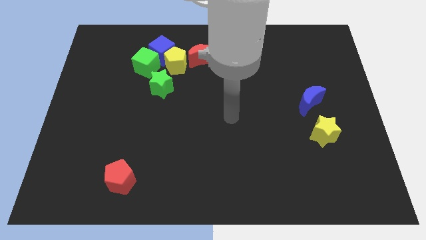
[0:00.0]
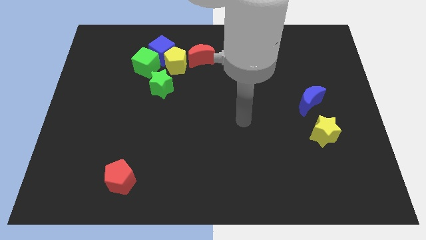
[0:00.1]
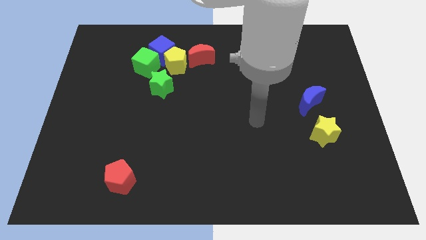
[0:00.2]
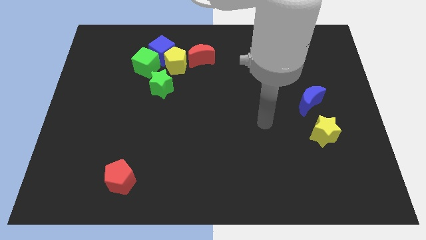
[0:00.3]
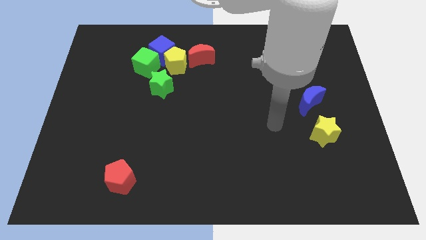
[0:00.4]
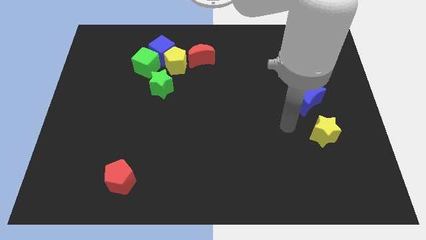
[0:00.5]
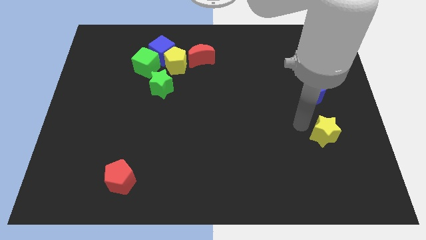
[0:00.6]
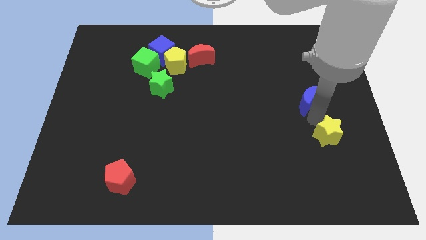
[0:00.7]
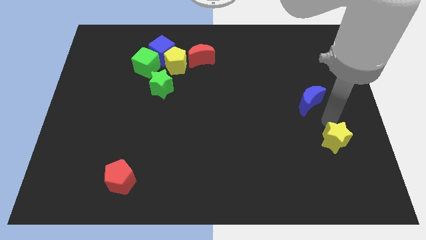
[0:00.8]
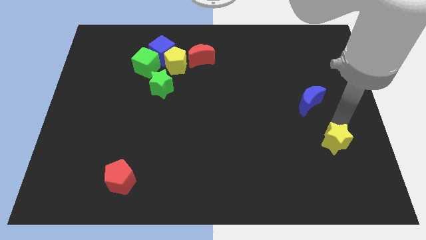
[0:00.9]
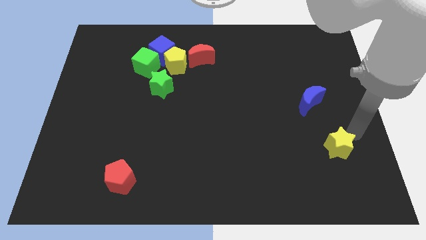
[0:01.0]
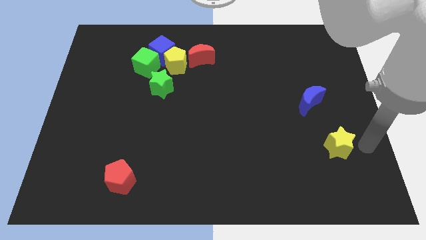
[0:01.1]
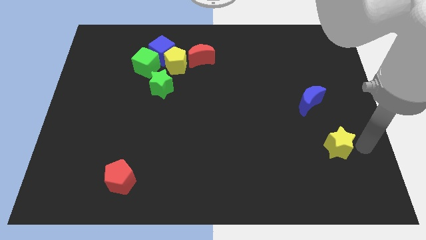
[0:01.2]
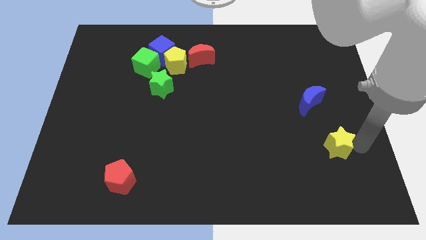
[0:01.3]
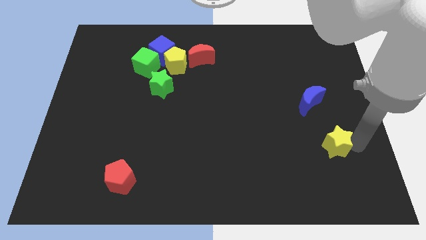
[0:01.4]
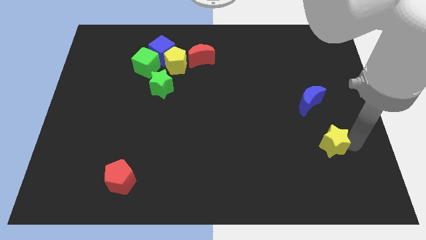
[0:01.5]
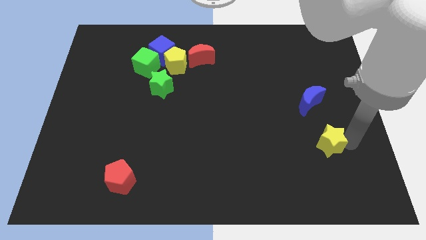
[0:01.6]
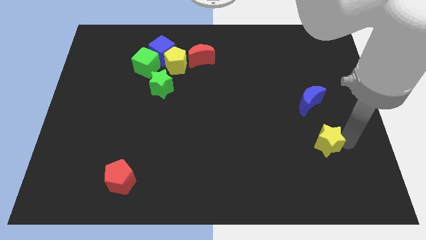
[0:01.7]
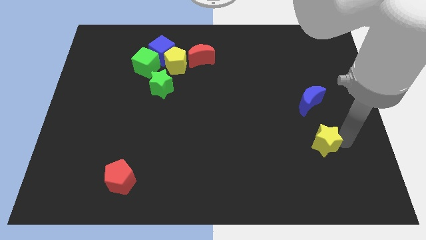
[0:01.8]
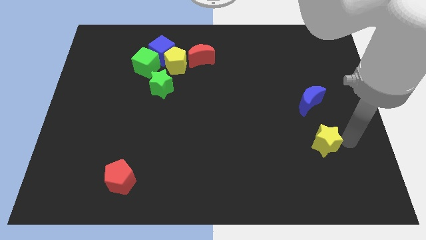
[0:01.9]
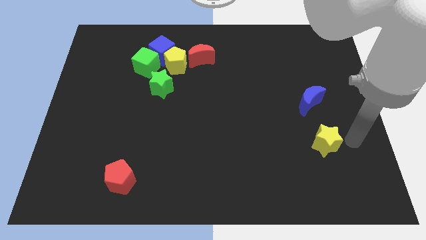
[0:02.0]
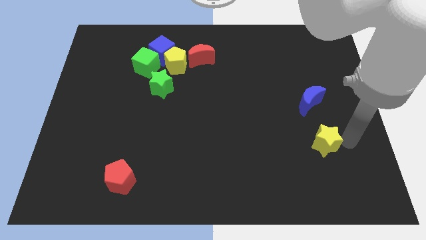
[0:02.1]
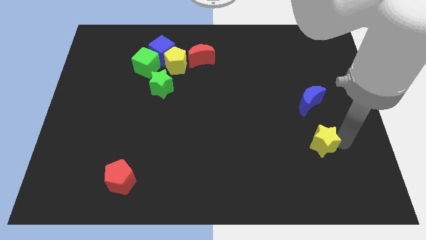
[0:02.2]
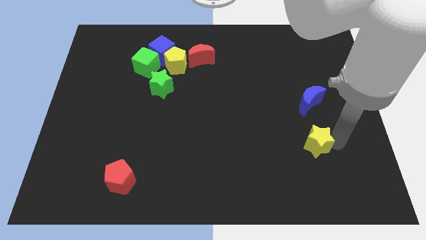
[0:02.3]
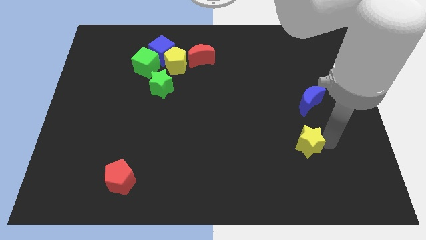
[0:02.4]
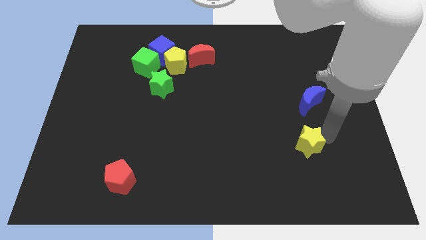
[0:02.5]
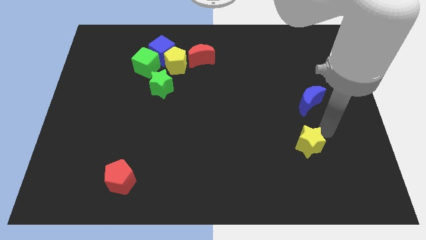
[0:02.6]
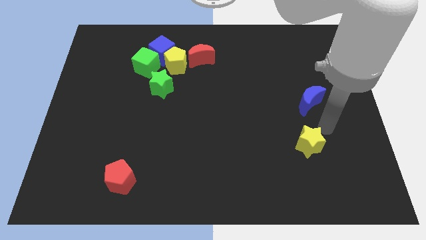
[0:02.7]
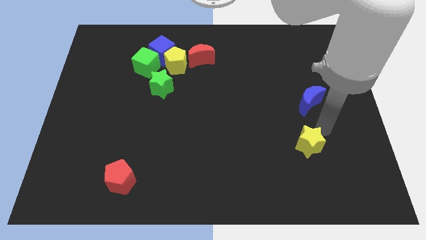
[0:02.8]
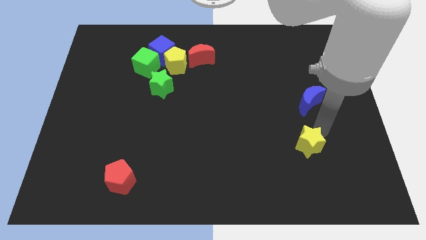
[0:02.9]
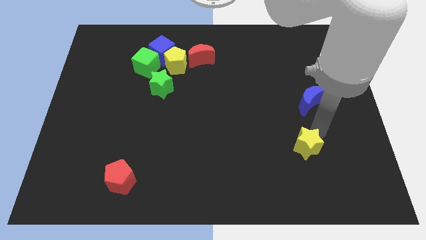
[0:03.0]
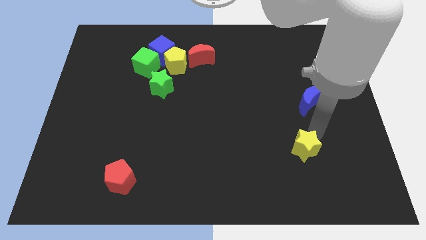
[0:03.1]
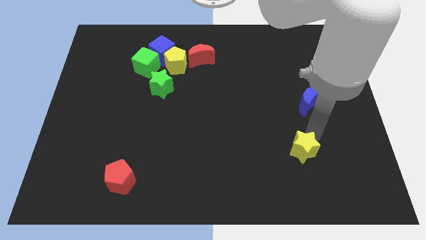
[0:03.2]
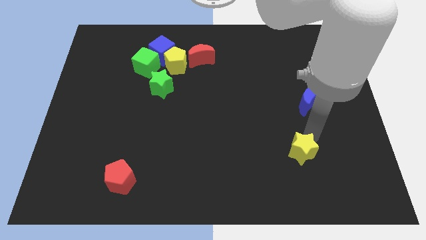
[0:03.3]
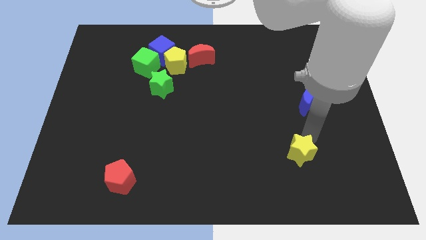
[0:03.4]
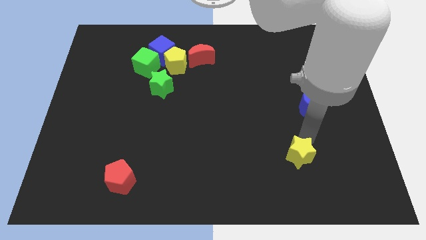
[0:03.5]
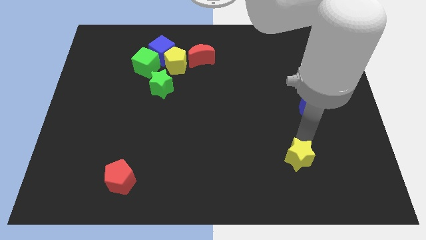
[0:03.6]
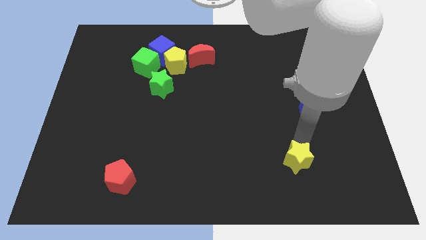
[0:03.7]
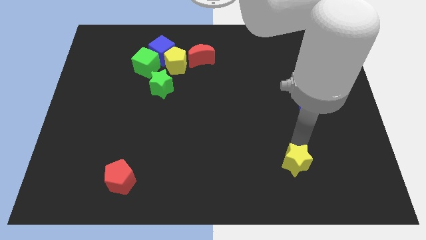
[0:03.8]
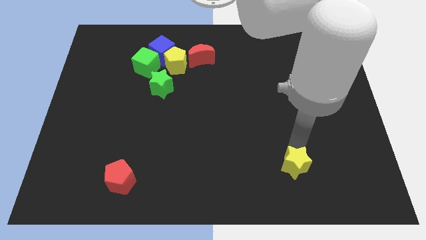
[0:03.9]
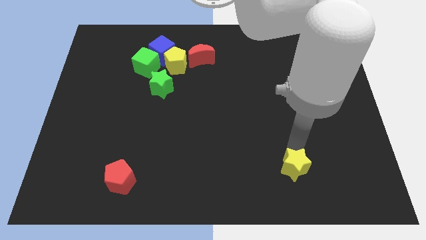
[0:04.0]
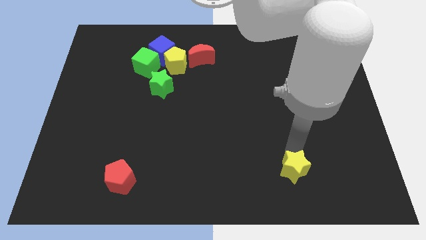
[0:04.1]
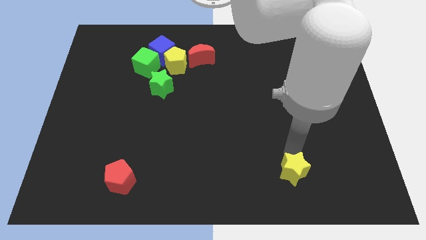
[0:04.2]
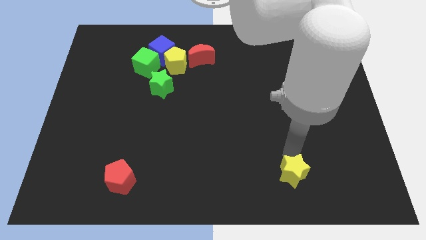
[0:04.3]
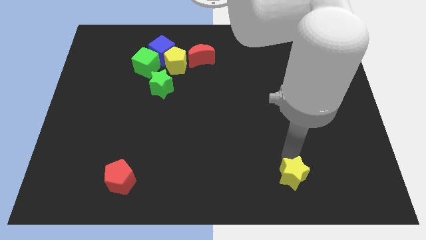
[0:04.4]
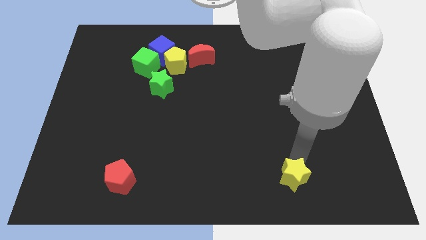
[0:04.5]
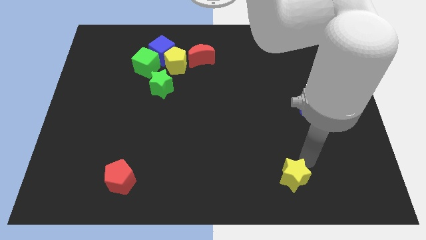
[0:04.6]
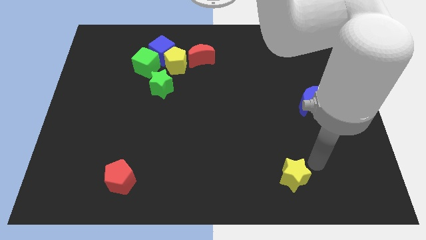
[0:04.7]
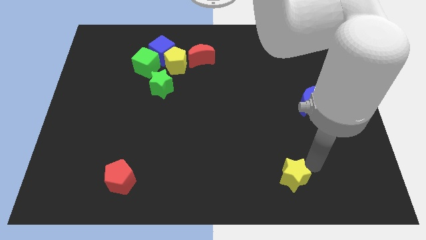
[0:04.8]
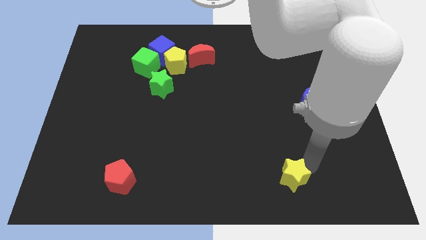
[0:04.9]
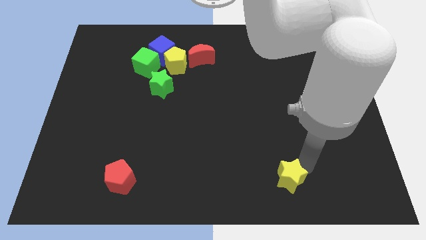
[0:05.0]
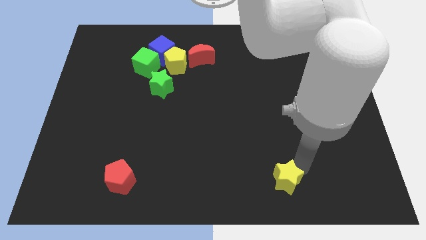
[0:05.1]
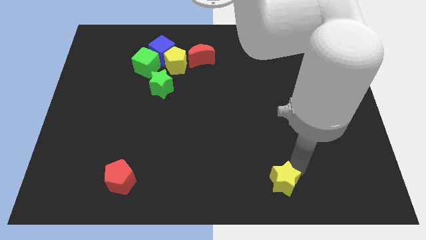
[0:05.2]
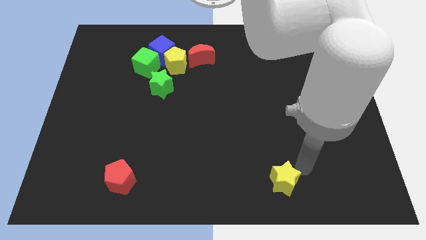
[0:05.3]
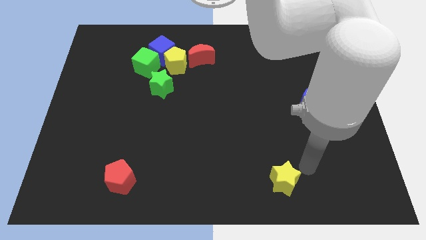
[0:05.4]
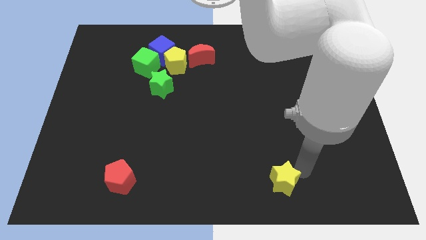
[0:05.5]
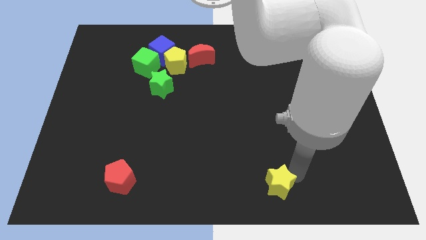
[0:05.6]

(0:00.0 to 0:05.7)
put the yellow star to the bottom side

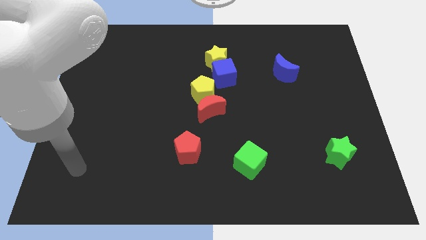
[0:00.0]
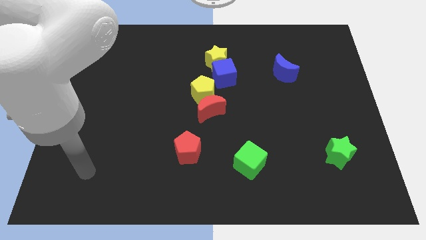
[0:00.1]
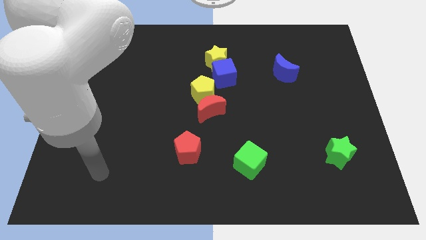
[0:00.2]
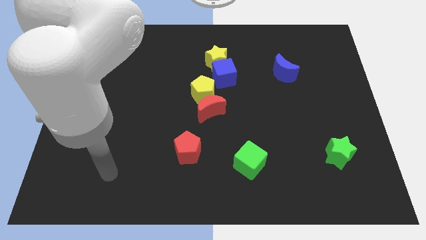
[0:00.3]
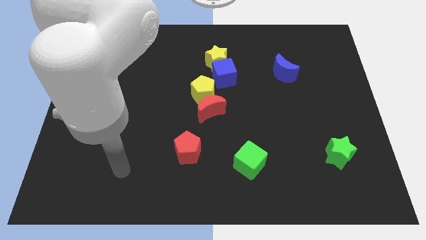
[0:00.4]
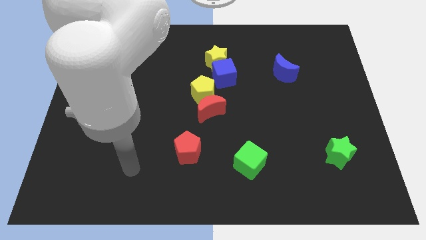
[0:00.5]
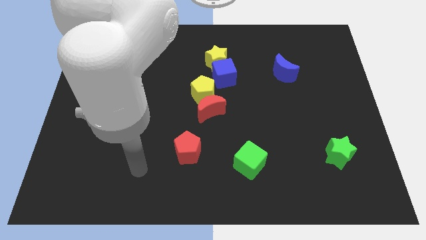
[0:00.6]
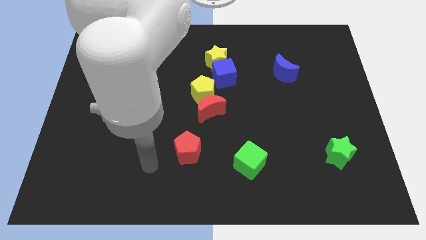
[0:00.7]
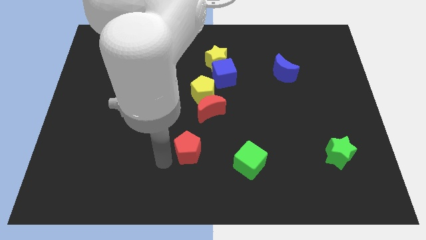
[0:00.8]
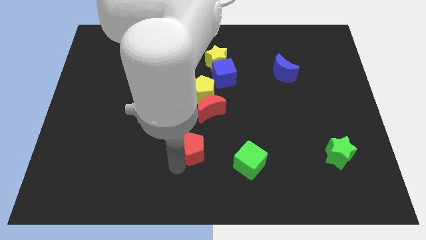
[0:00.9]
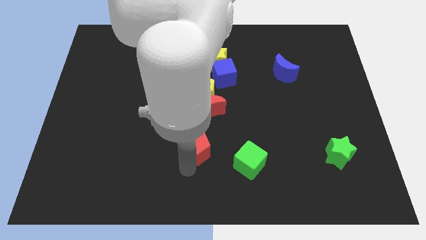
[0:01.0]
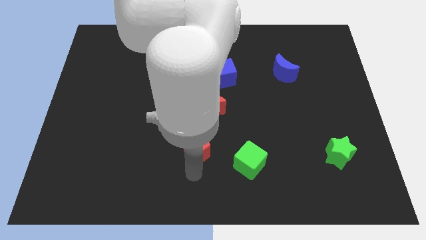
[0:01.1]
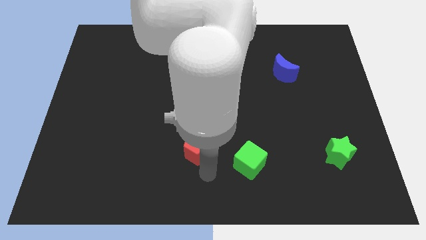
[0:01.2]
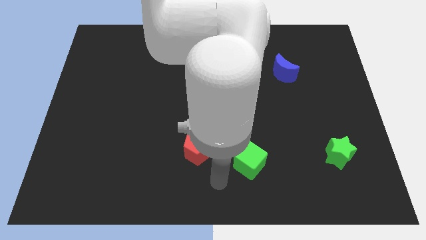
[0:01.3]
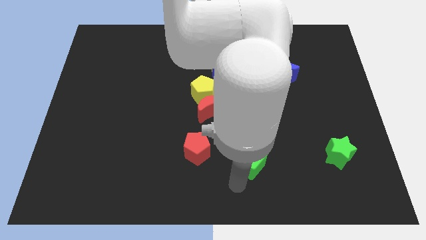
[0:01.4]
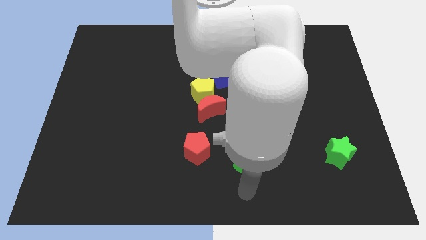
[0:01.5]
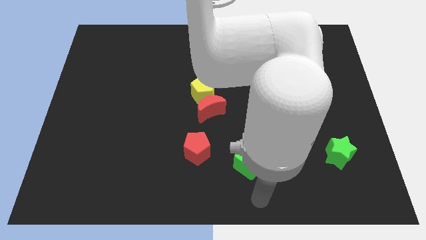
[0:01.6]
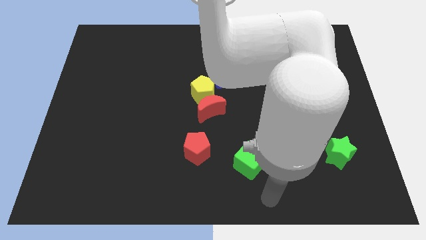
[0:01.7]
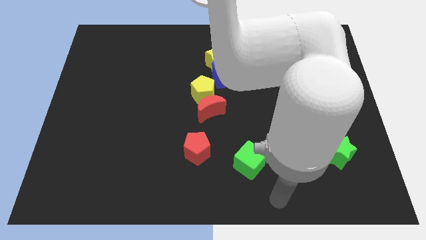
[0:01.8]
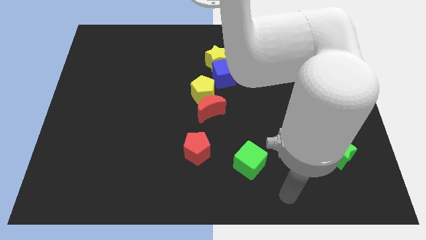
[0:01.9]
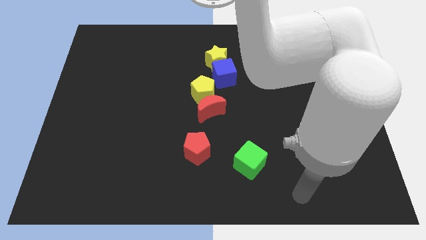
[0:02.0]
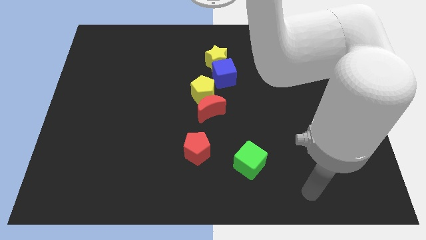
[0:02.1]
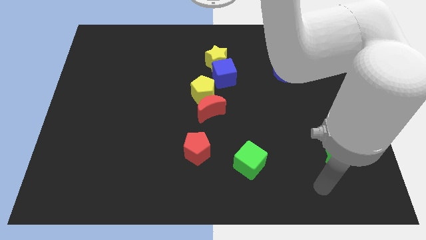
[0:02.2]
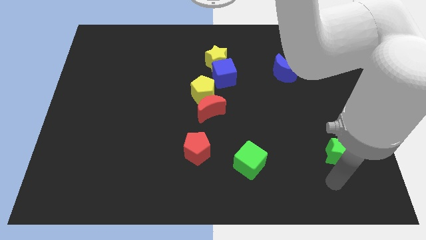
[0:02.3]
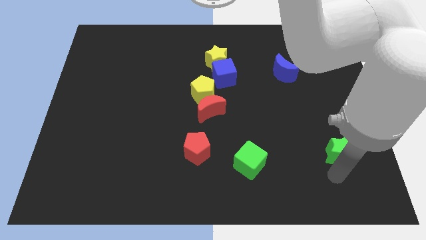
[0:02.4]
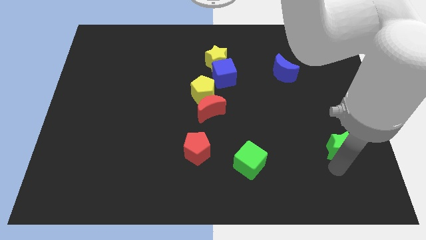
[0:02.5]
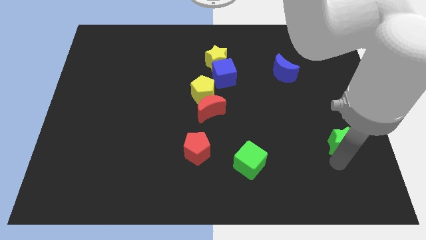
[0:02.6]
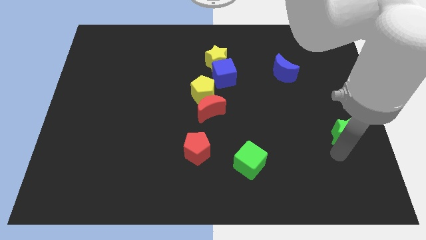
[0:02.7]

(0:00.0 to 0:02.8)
move the green star to the right side of the board
